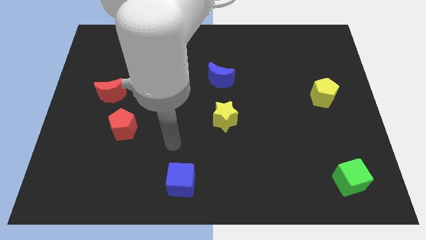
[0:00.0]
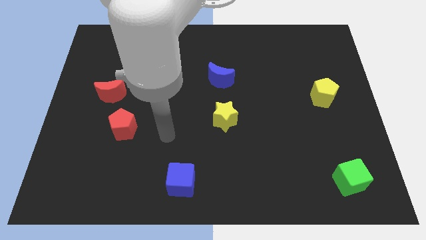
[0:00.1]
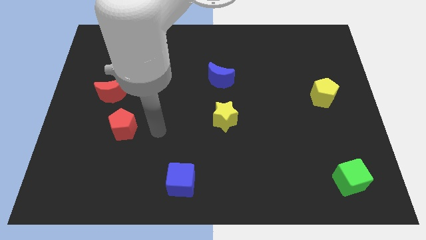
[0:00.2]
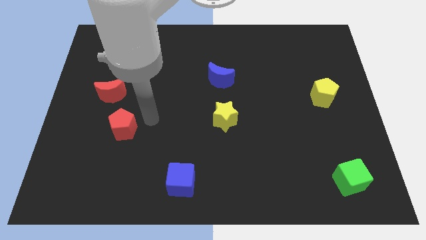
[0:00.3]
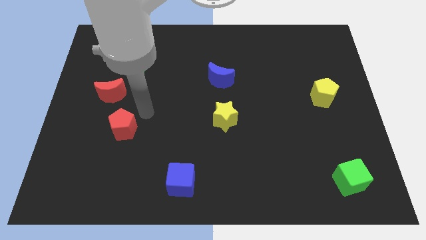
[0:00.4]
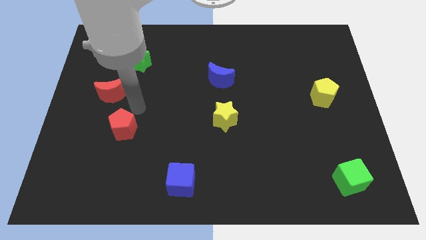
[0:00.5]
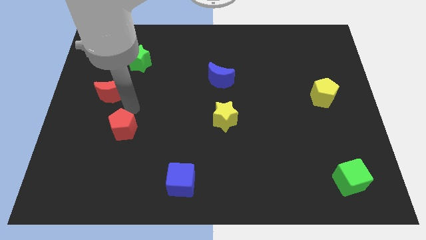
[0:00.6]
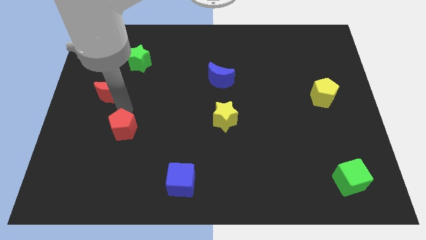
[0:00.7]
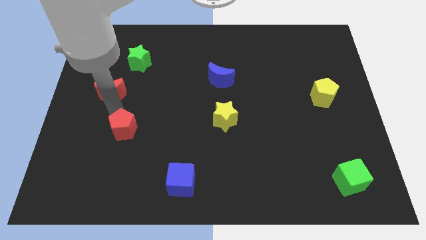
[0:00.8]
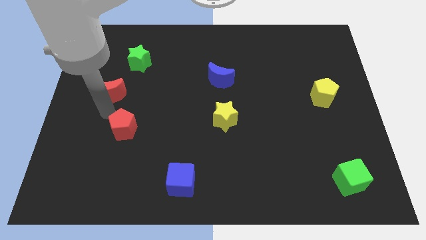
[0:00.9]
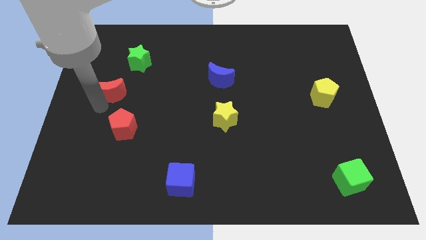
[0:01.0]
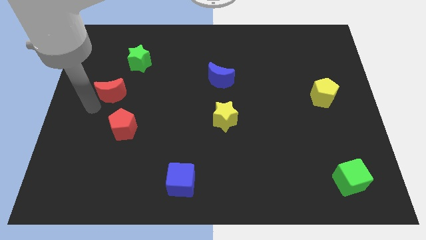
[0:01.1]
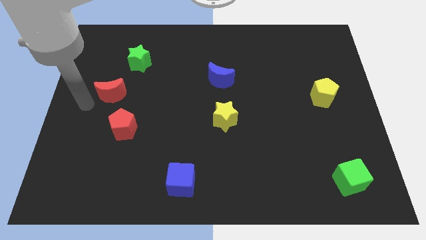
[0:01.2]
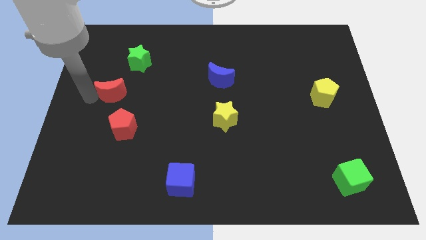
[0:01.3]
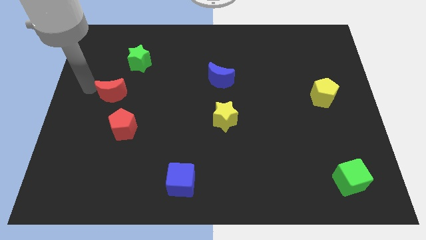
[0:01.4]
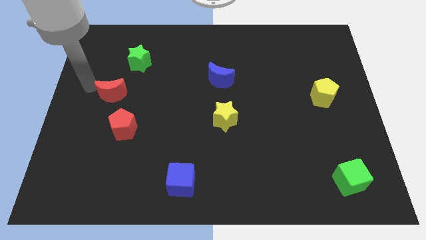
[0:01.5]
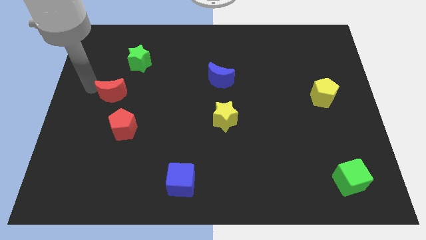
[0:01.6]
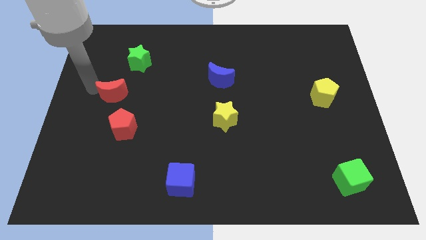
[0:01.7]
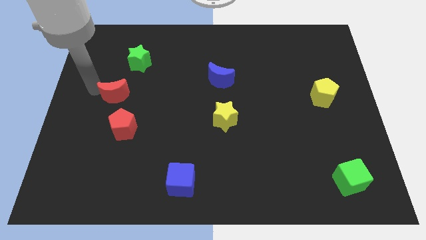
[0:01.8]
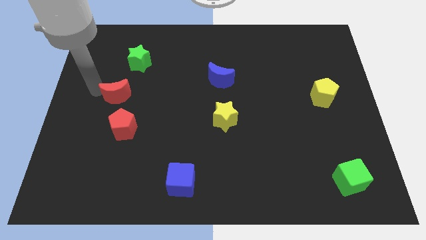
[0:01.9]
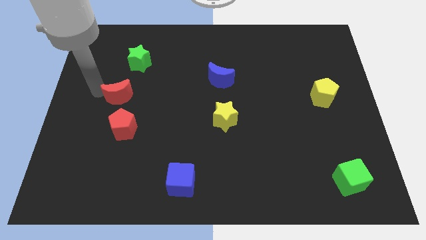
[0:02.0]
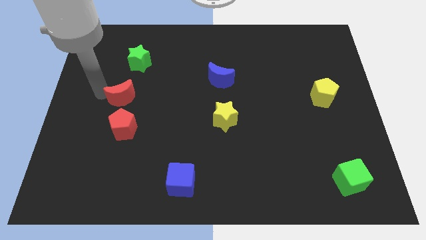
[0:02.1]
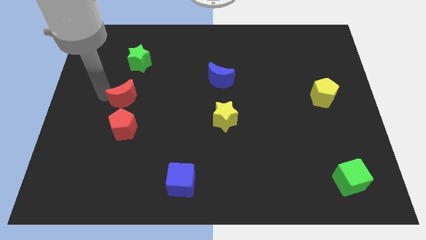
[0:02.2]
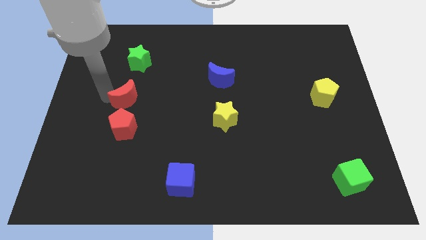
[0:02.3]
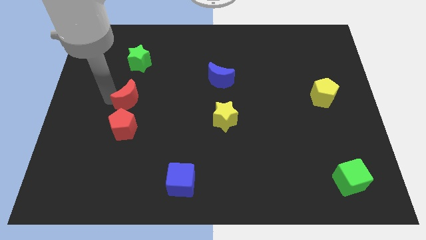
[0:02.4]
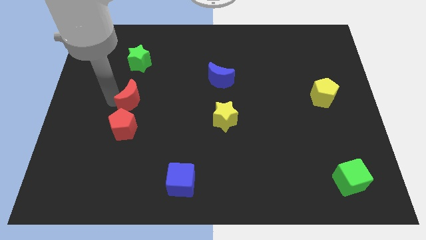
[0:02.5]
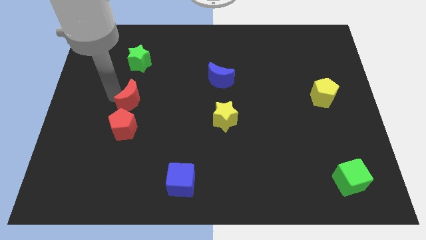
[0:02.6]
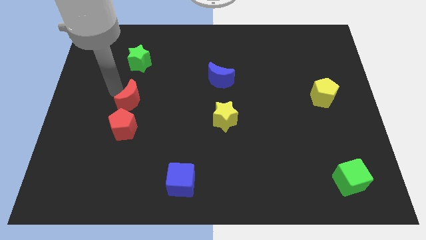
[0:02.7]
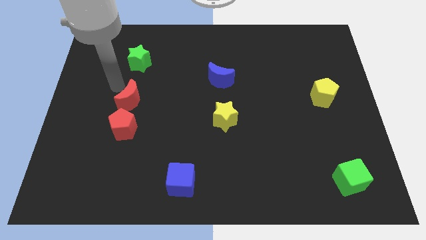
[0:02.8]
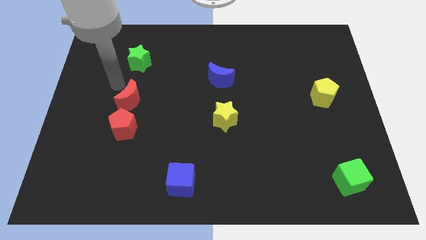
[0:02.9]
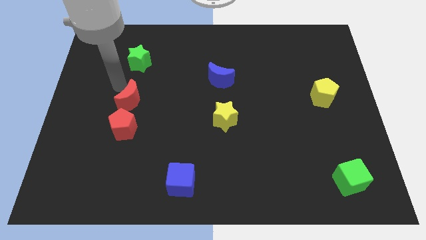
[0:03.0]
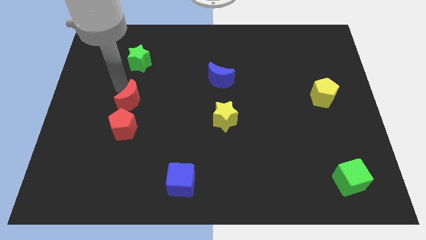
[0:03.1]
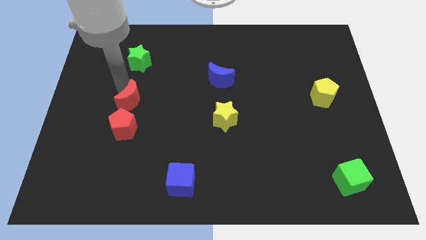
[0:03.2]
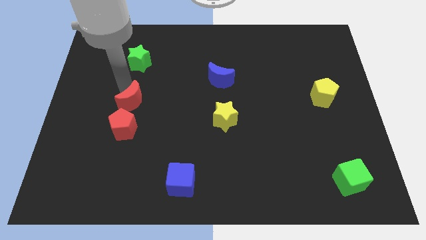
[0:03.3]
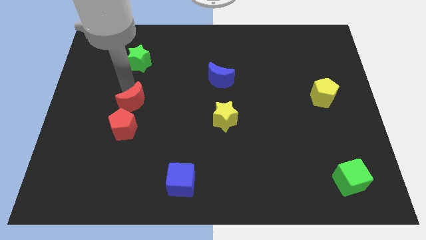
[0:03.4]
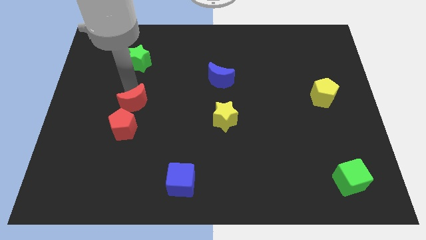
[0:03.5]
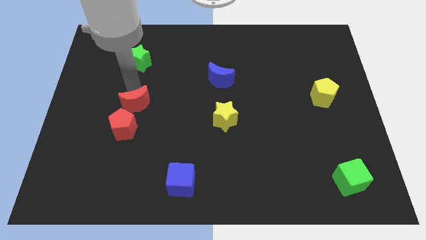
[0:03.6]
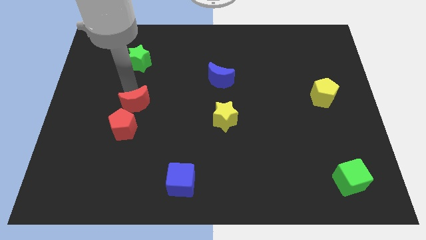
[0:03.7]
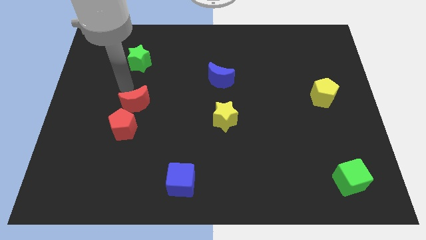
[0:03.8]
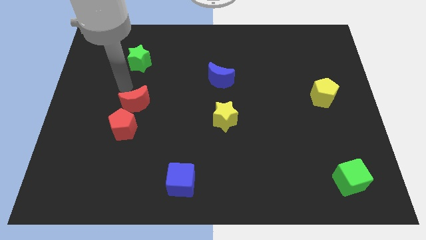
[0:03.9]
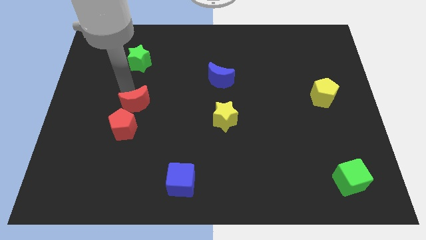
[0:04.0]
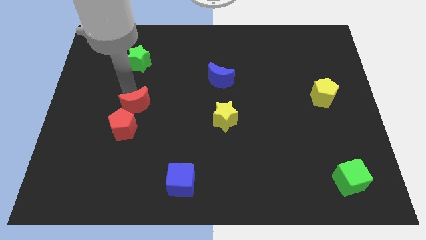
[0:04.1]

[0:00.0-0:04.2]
slide the red moon down and right diagonally somewhat

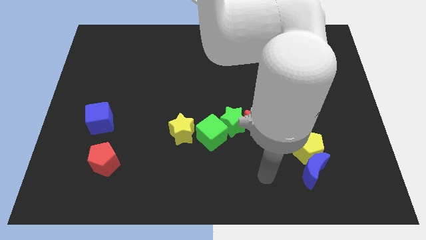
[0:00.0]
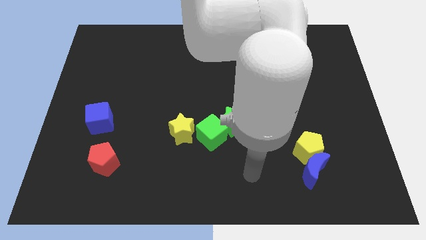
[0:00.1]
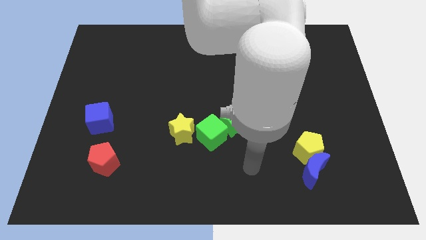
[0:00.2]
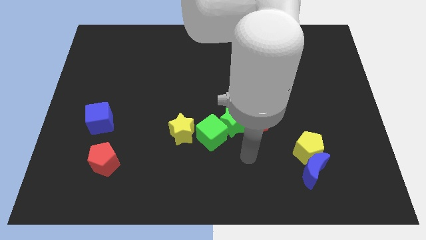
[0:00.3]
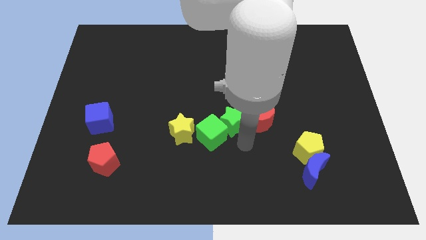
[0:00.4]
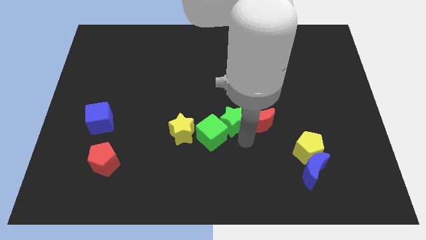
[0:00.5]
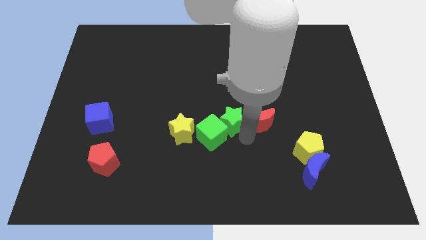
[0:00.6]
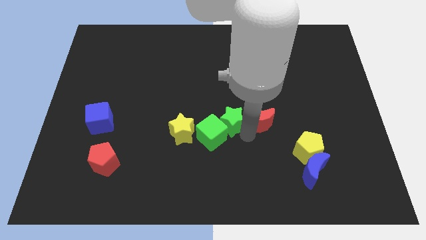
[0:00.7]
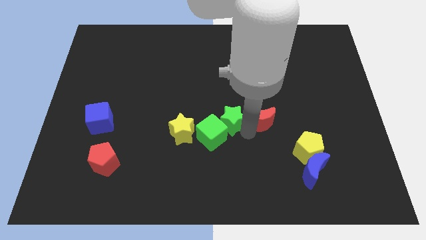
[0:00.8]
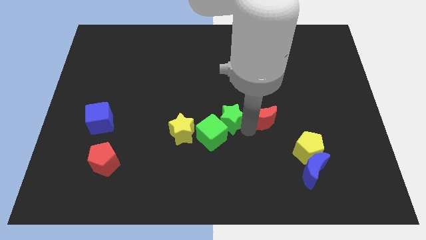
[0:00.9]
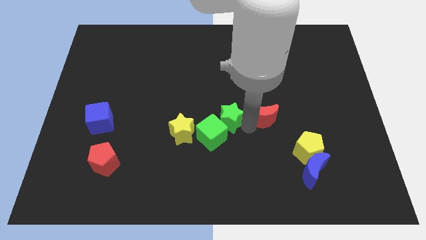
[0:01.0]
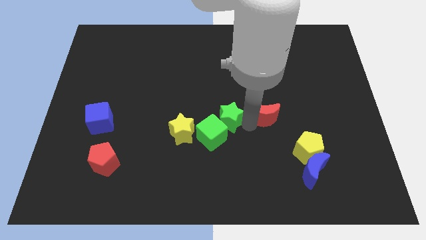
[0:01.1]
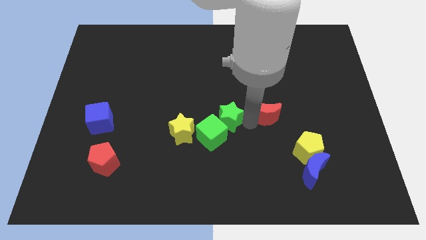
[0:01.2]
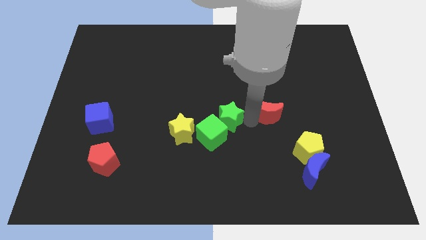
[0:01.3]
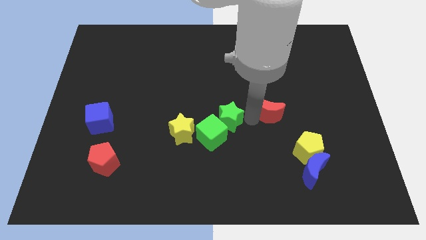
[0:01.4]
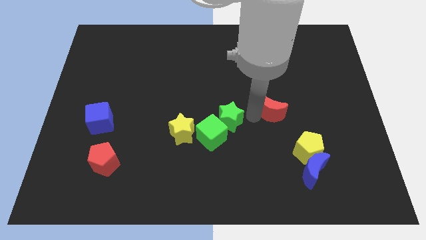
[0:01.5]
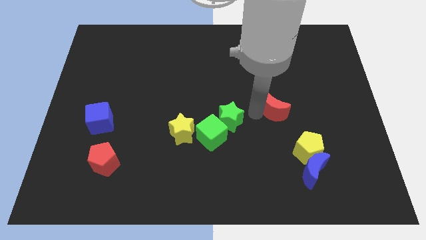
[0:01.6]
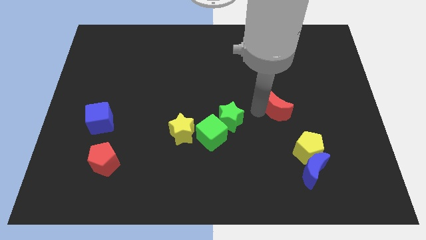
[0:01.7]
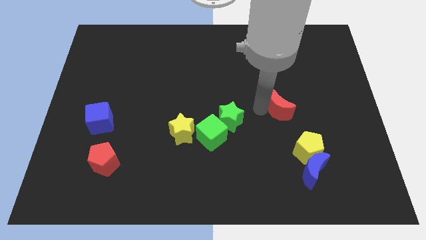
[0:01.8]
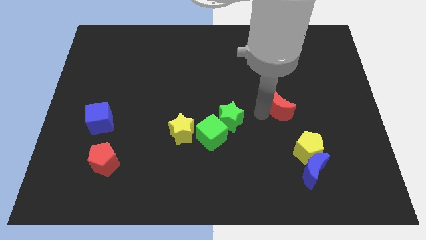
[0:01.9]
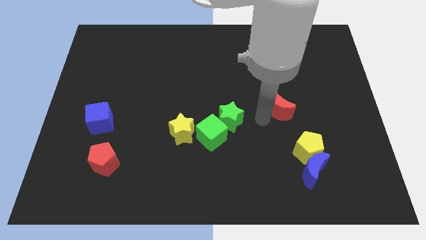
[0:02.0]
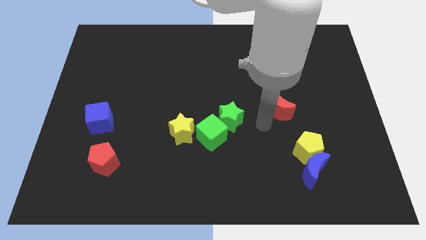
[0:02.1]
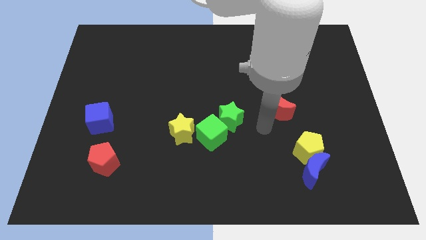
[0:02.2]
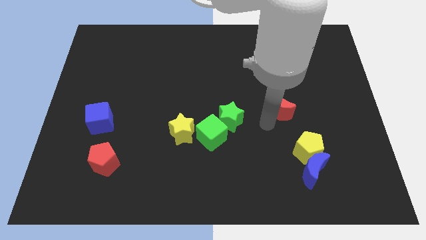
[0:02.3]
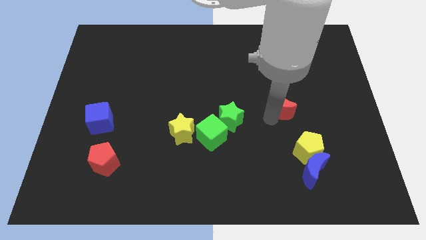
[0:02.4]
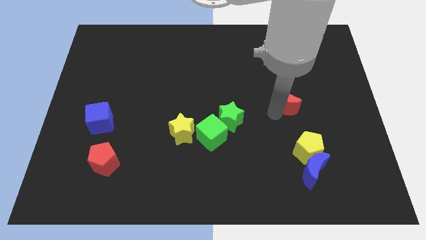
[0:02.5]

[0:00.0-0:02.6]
slightly push the red moon upwards and then to the right

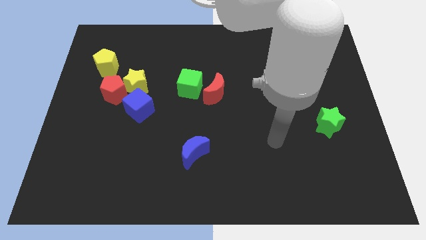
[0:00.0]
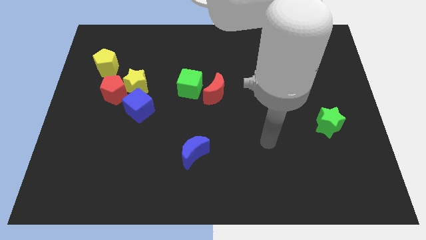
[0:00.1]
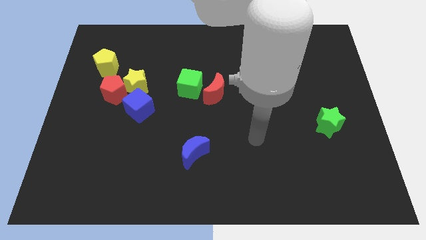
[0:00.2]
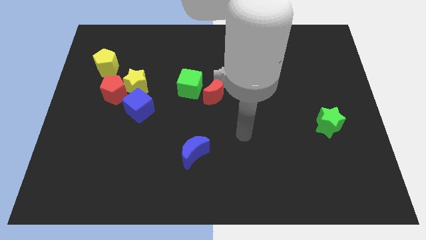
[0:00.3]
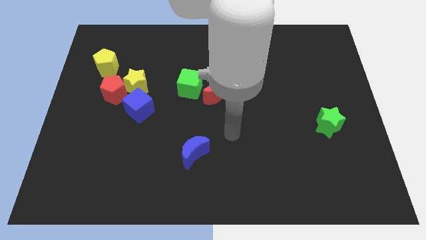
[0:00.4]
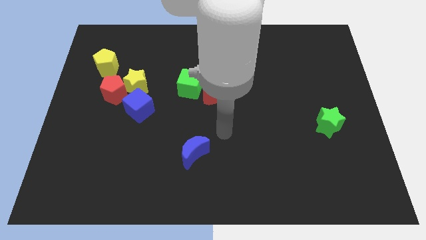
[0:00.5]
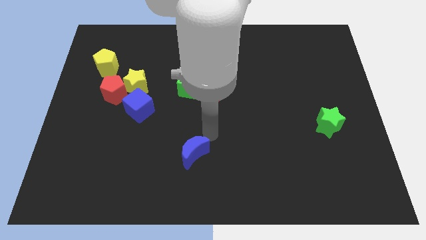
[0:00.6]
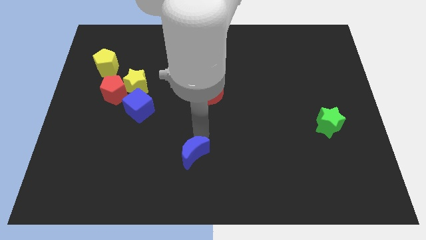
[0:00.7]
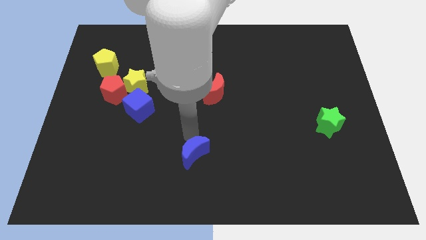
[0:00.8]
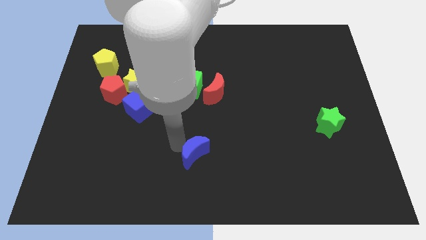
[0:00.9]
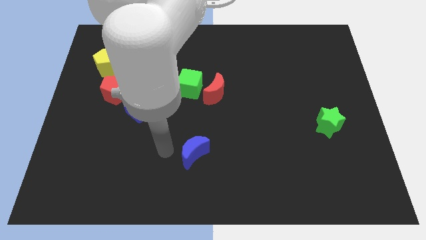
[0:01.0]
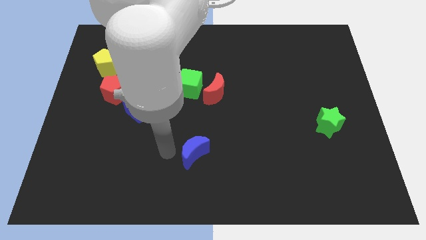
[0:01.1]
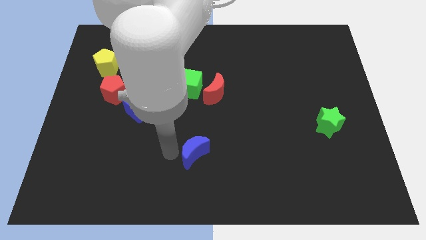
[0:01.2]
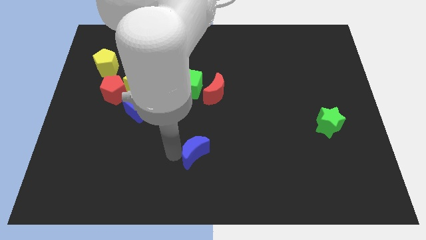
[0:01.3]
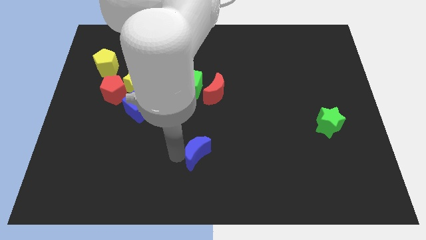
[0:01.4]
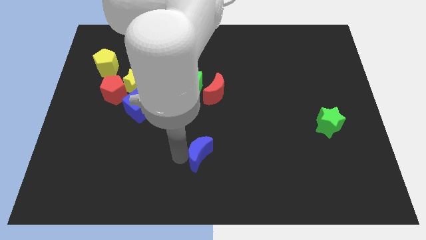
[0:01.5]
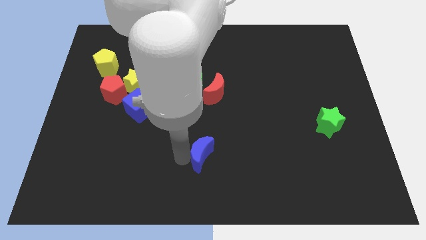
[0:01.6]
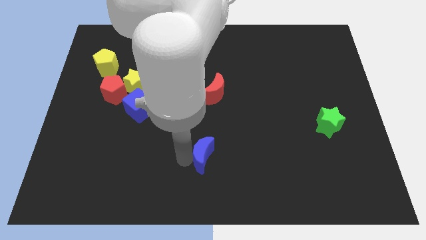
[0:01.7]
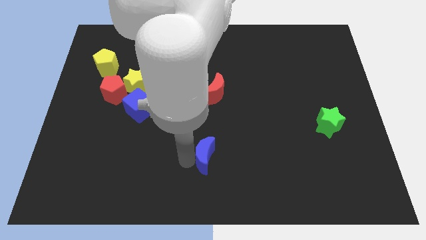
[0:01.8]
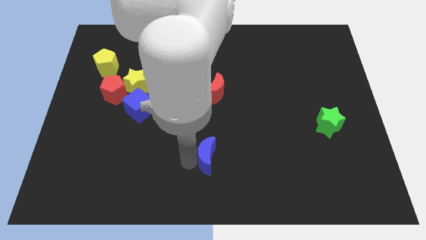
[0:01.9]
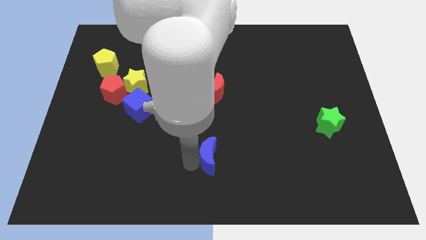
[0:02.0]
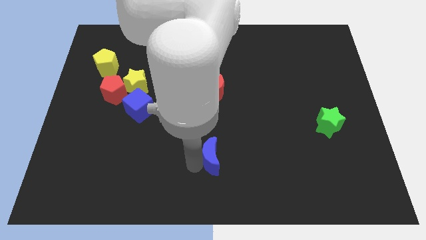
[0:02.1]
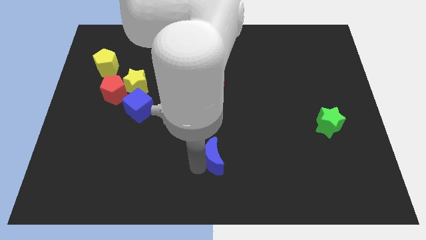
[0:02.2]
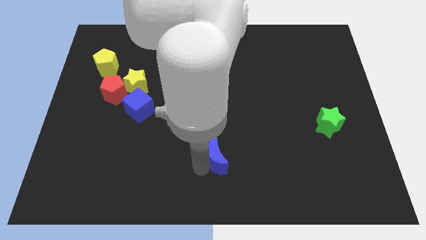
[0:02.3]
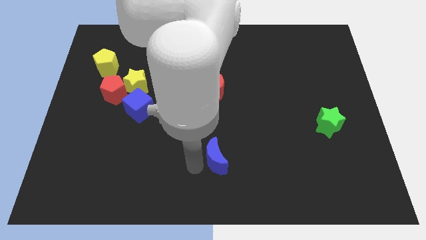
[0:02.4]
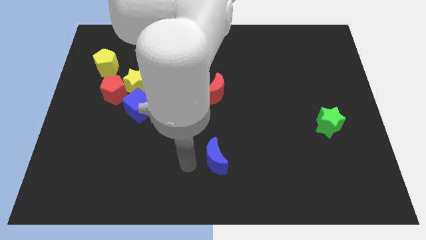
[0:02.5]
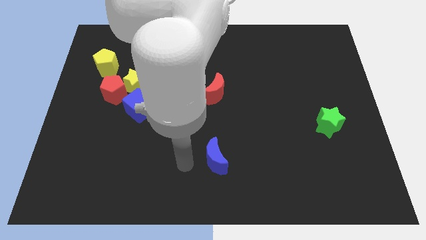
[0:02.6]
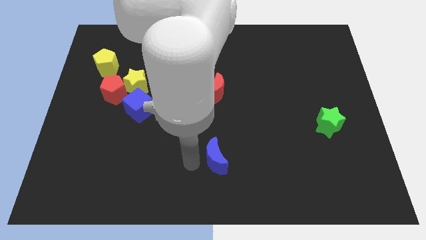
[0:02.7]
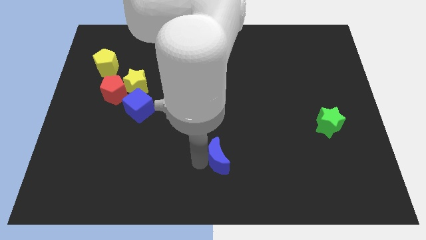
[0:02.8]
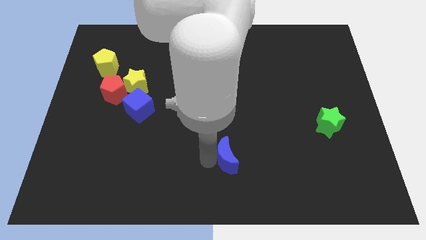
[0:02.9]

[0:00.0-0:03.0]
move the blue moon to the right a little bit
